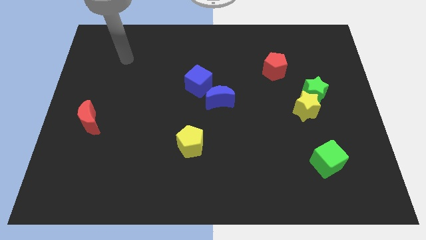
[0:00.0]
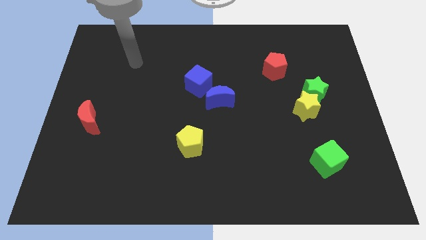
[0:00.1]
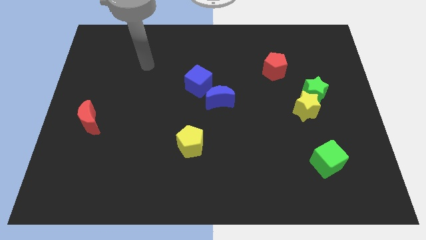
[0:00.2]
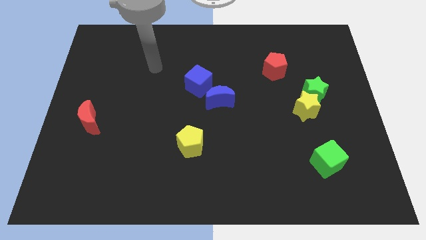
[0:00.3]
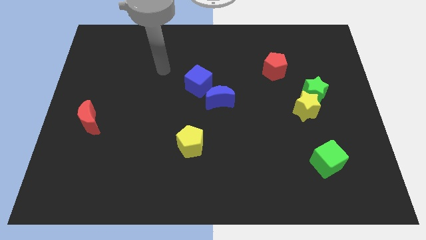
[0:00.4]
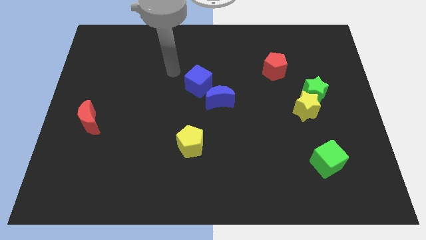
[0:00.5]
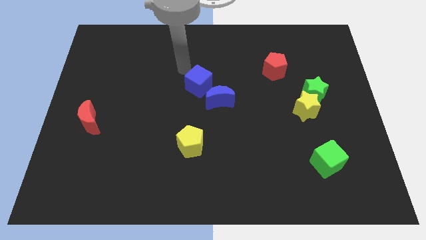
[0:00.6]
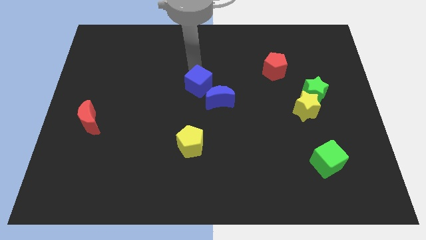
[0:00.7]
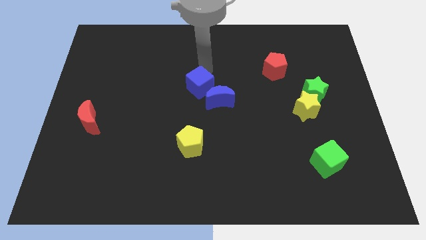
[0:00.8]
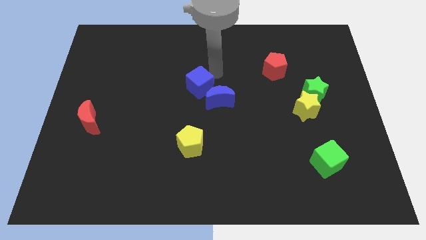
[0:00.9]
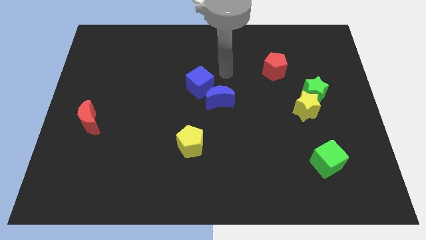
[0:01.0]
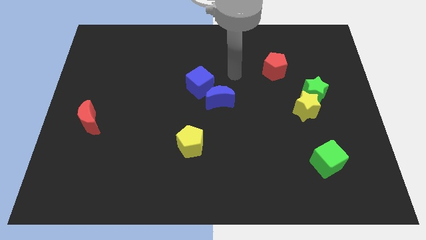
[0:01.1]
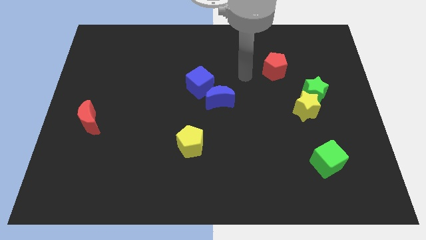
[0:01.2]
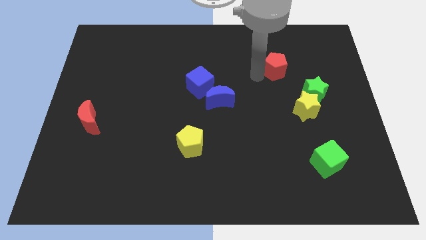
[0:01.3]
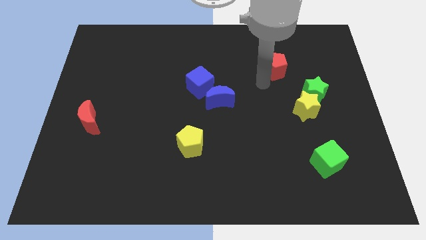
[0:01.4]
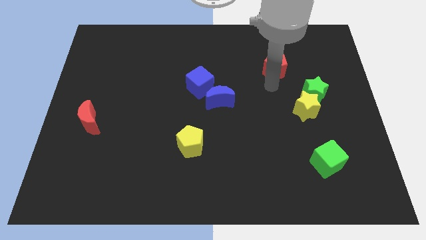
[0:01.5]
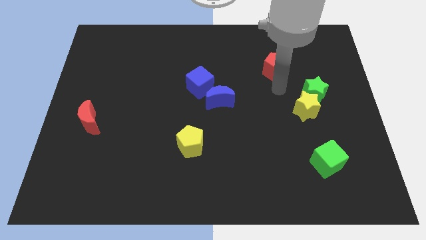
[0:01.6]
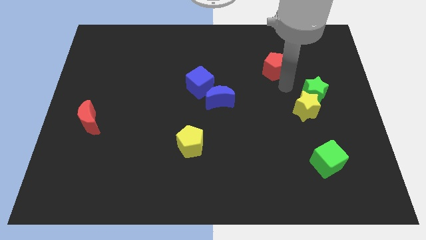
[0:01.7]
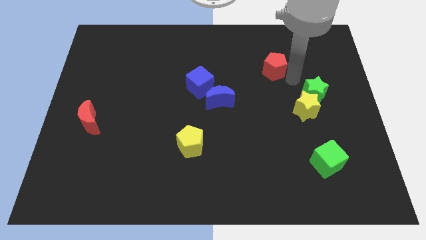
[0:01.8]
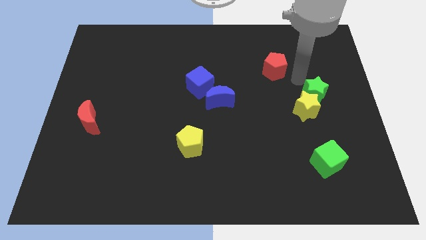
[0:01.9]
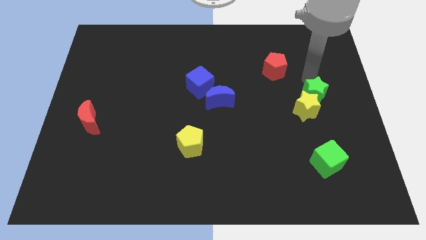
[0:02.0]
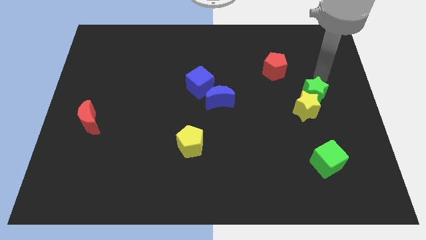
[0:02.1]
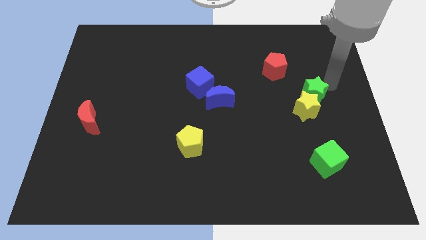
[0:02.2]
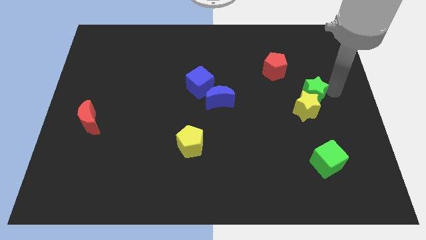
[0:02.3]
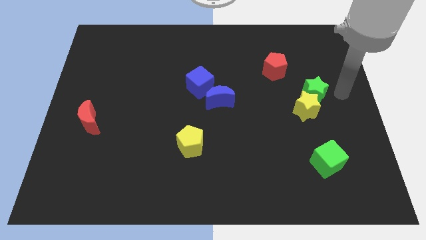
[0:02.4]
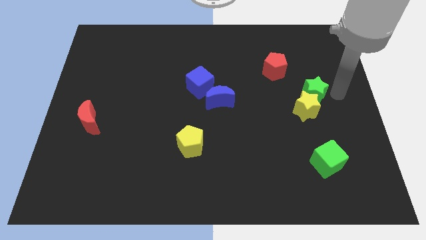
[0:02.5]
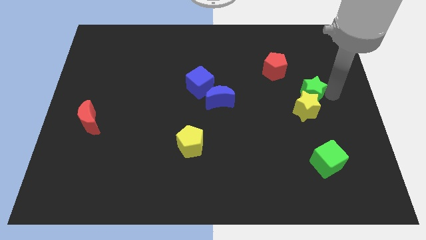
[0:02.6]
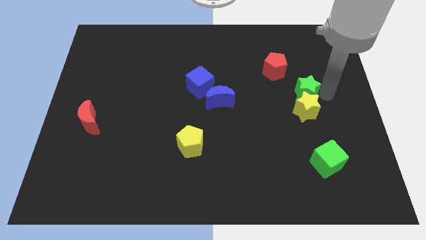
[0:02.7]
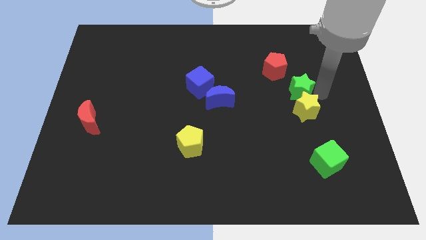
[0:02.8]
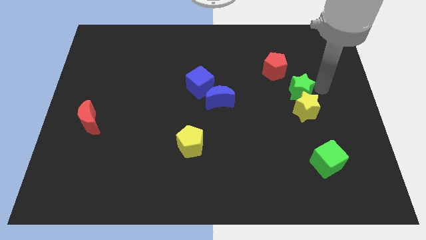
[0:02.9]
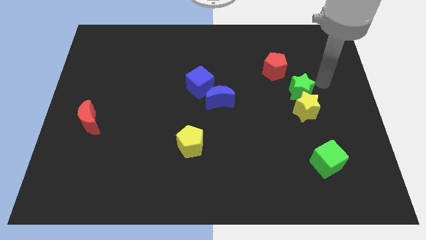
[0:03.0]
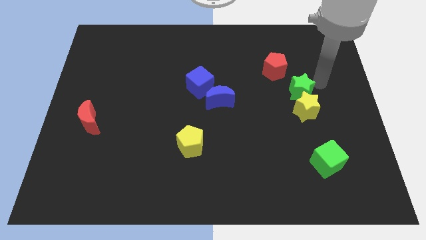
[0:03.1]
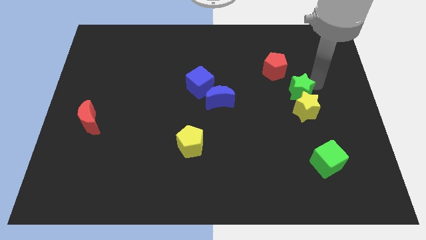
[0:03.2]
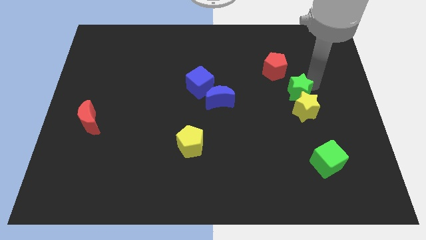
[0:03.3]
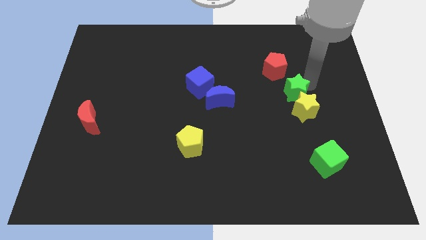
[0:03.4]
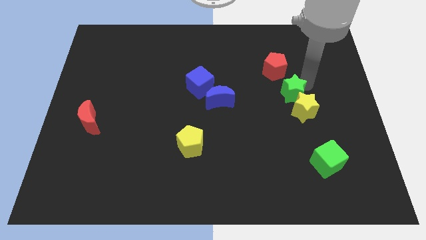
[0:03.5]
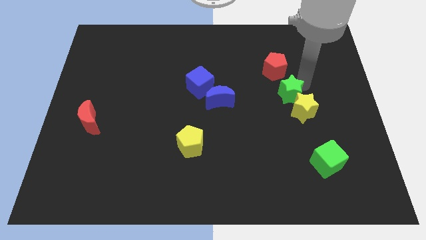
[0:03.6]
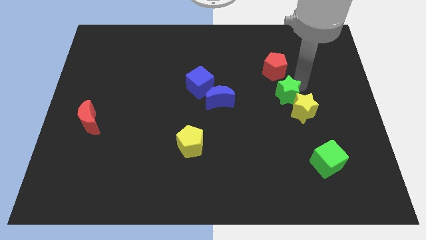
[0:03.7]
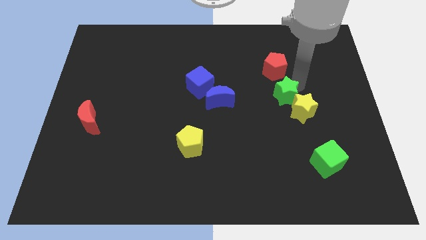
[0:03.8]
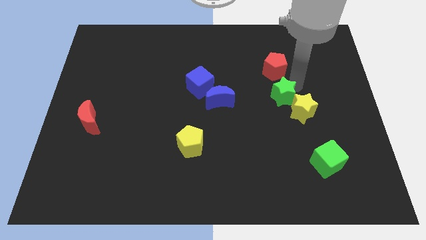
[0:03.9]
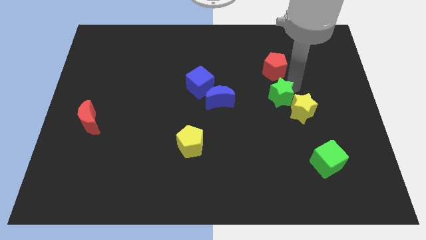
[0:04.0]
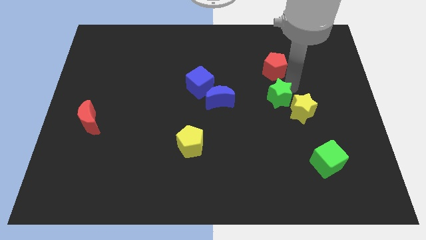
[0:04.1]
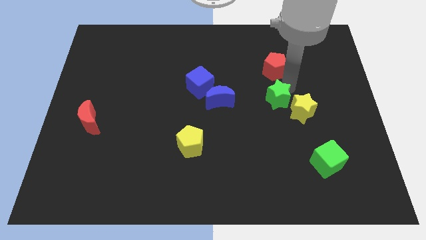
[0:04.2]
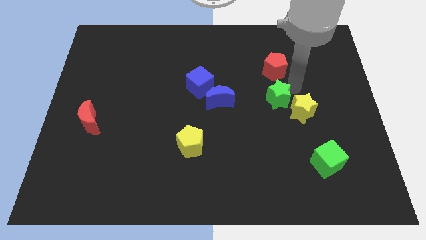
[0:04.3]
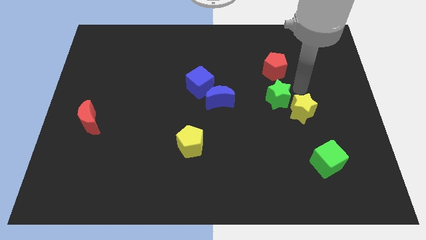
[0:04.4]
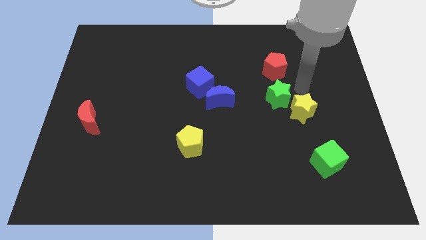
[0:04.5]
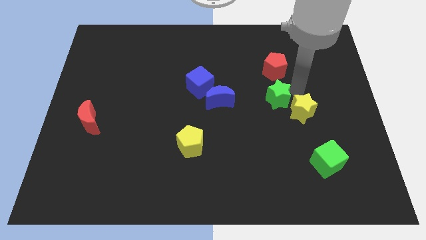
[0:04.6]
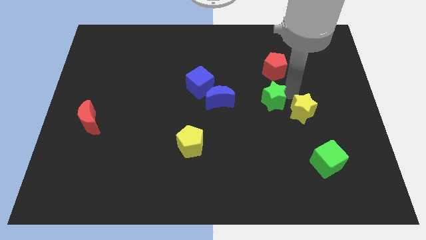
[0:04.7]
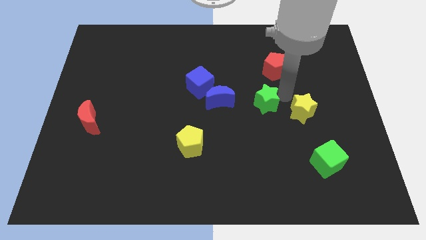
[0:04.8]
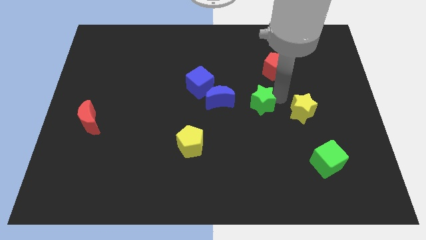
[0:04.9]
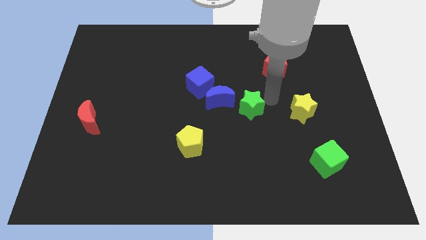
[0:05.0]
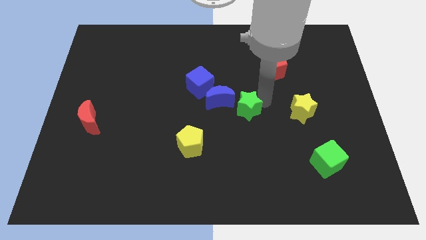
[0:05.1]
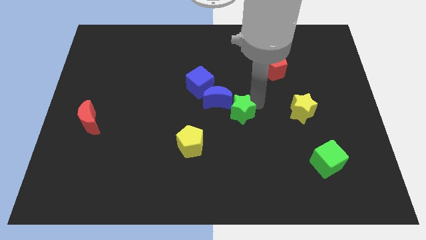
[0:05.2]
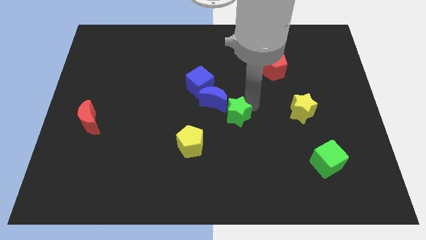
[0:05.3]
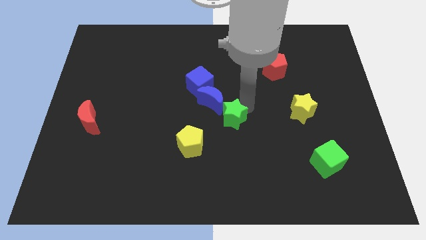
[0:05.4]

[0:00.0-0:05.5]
push the green star to the bottom of the blue moon
